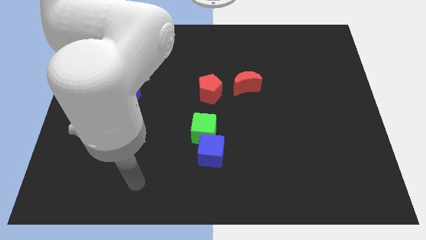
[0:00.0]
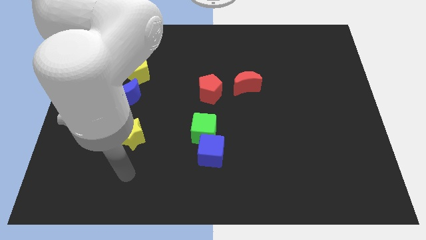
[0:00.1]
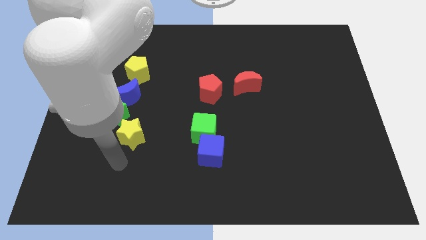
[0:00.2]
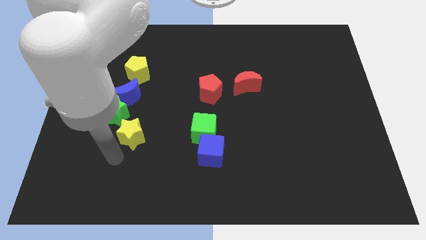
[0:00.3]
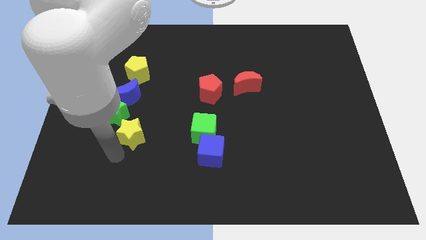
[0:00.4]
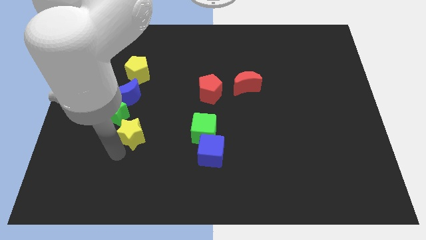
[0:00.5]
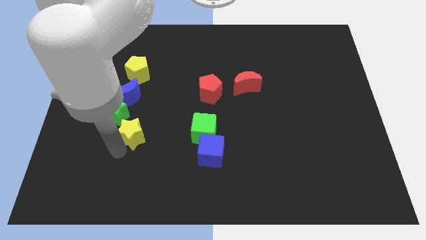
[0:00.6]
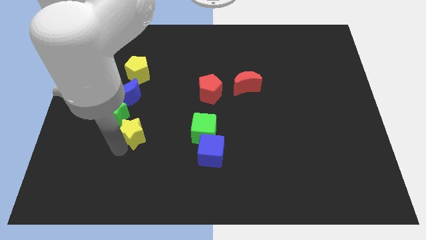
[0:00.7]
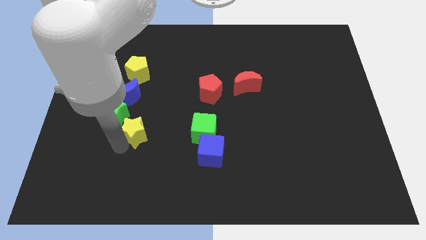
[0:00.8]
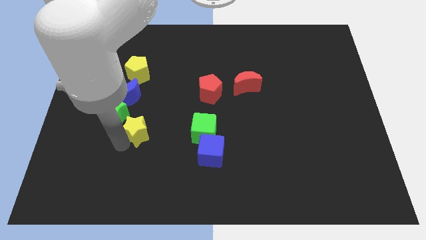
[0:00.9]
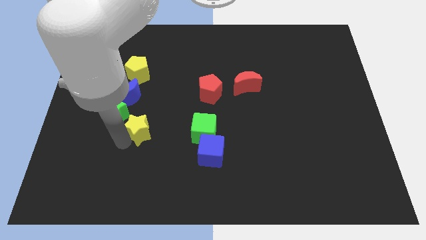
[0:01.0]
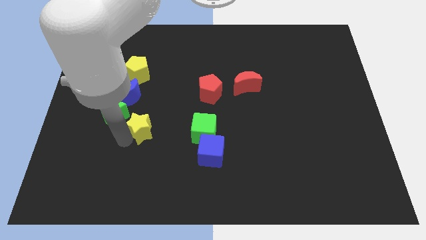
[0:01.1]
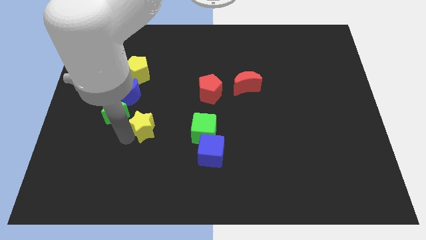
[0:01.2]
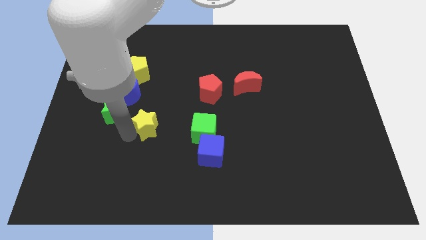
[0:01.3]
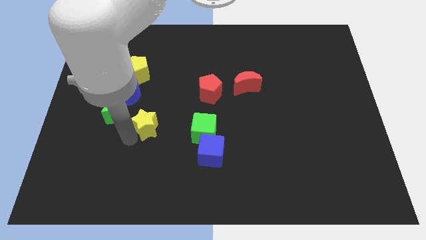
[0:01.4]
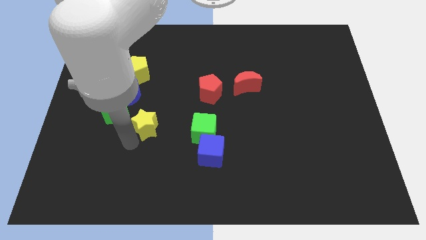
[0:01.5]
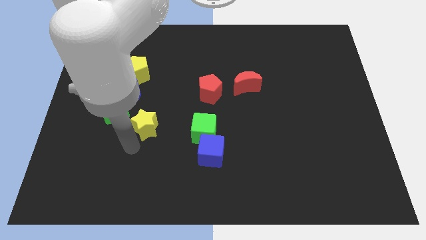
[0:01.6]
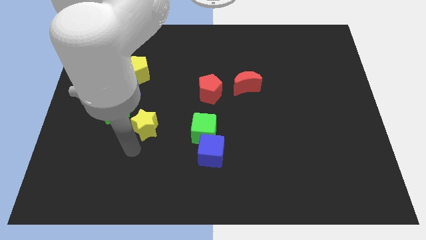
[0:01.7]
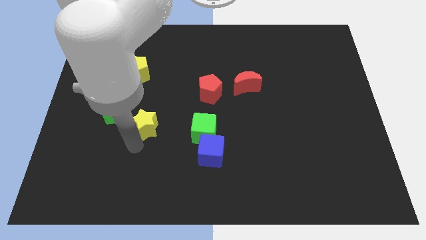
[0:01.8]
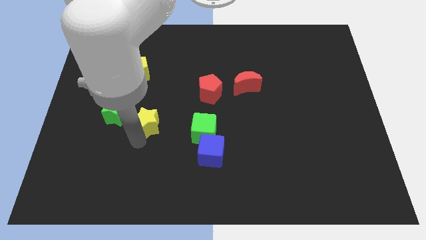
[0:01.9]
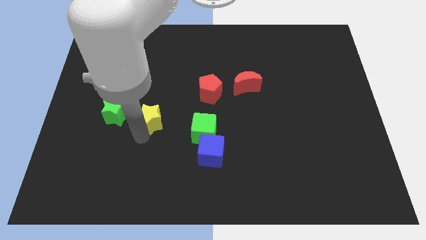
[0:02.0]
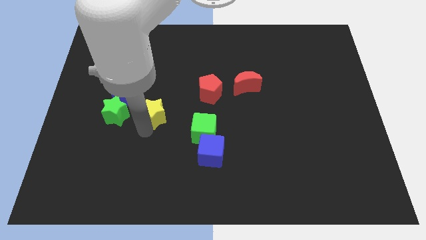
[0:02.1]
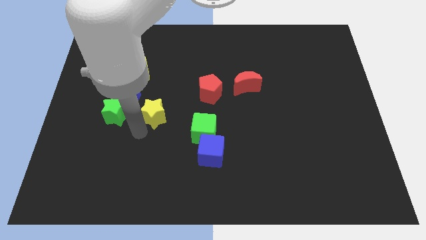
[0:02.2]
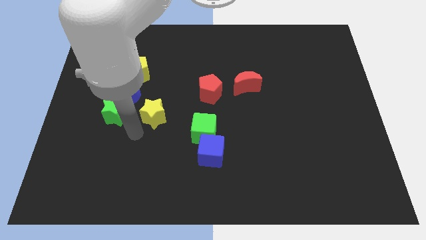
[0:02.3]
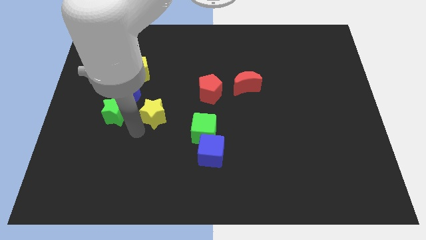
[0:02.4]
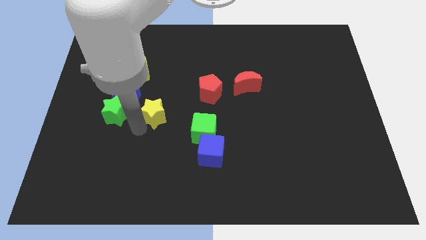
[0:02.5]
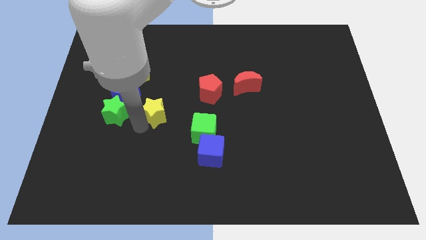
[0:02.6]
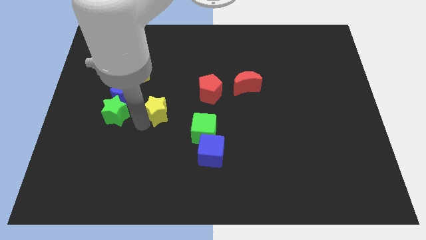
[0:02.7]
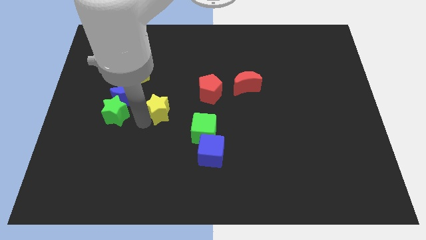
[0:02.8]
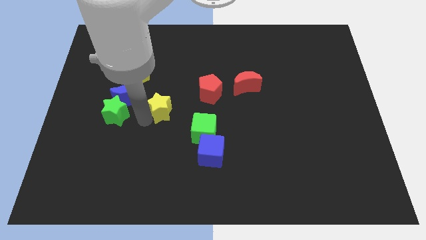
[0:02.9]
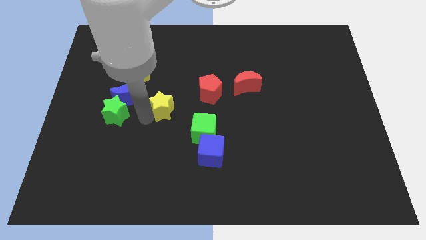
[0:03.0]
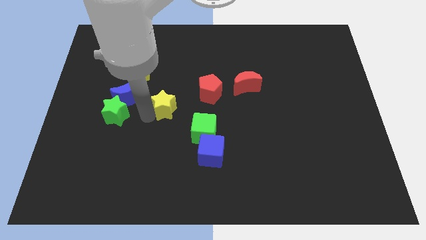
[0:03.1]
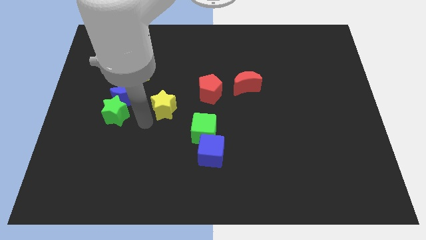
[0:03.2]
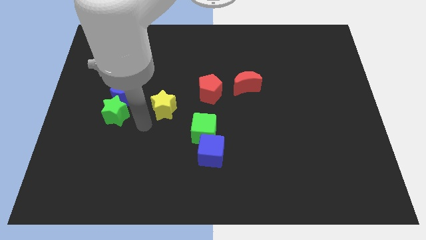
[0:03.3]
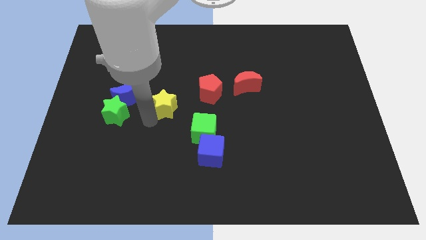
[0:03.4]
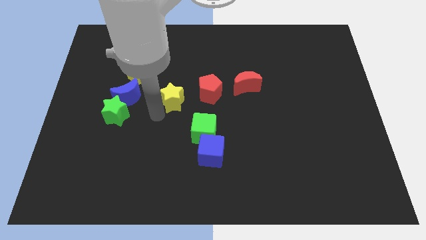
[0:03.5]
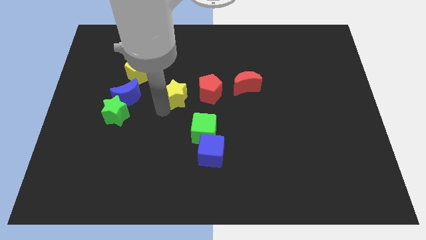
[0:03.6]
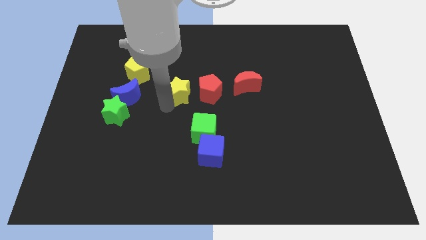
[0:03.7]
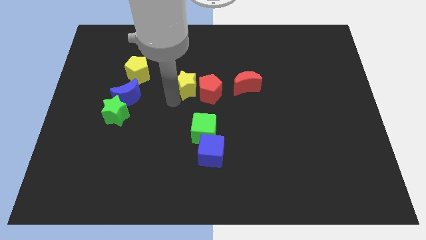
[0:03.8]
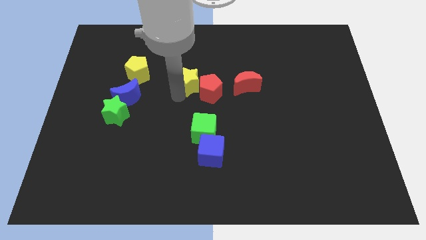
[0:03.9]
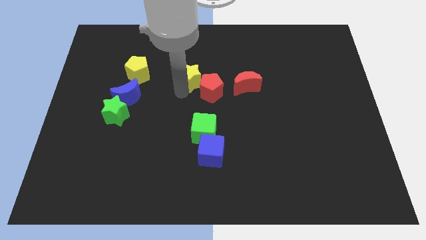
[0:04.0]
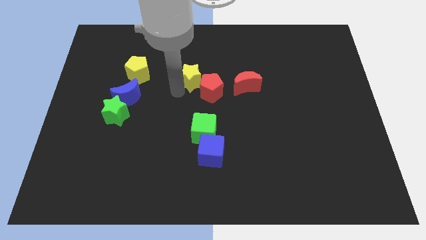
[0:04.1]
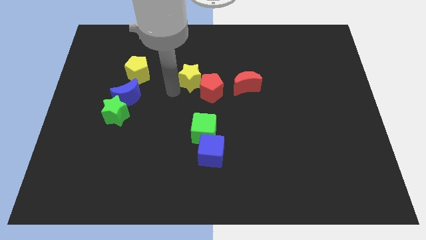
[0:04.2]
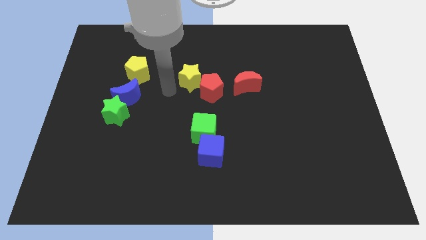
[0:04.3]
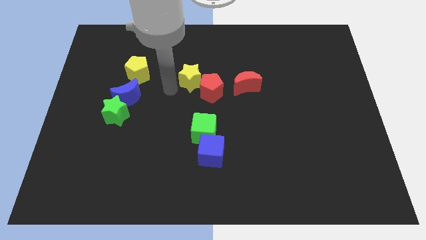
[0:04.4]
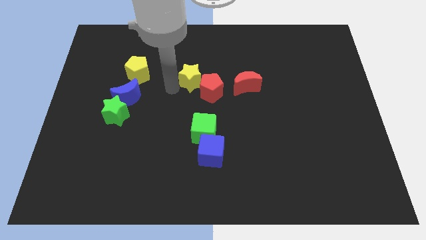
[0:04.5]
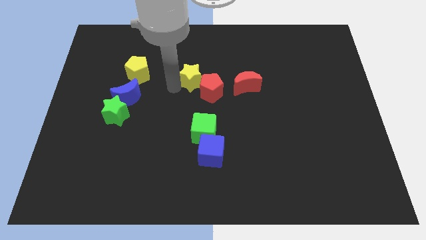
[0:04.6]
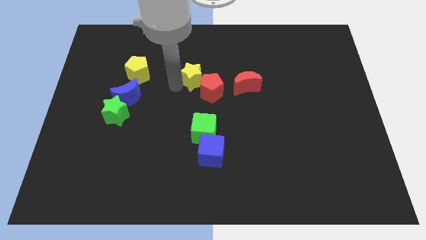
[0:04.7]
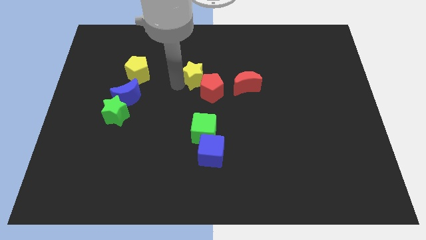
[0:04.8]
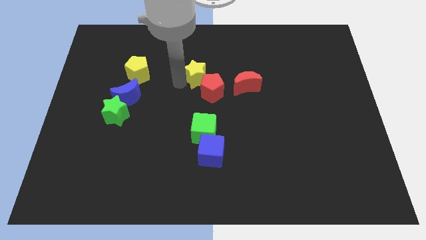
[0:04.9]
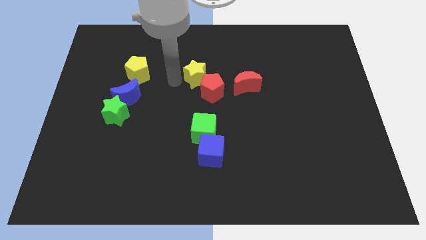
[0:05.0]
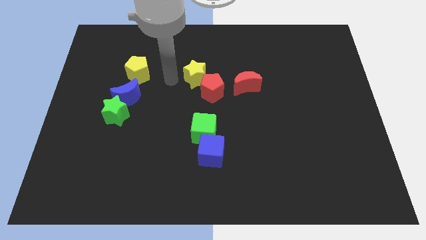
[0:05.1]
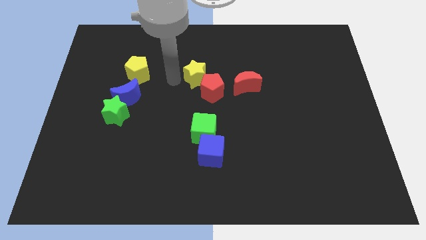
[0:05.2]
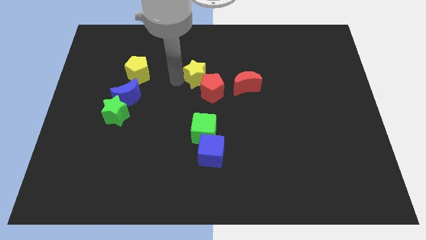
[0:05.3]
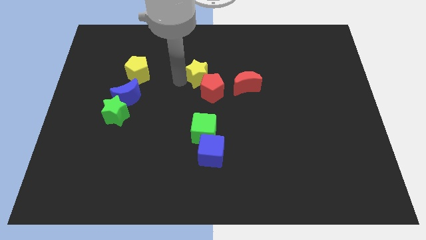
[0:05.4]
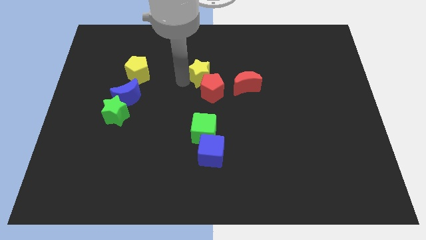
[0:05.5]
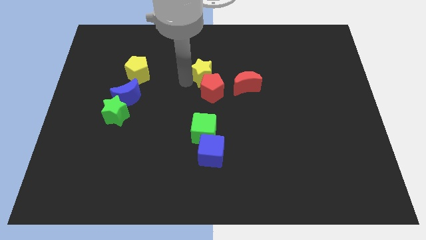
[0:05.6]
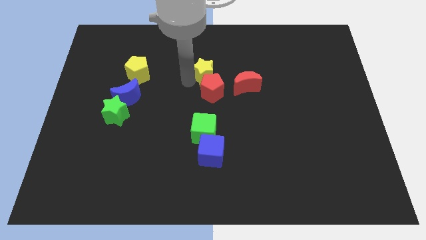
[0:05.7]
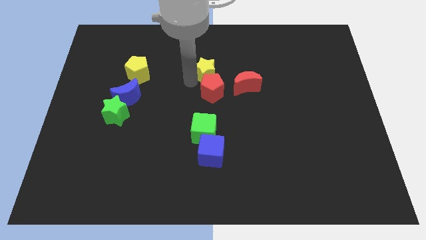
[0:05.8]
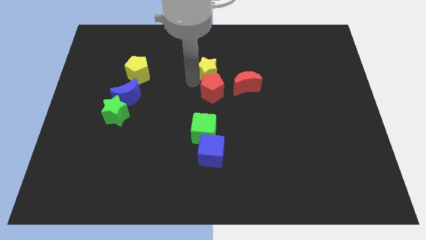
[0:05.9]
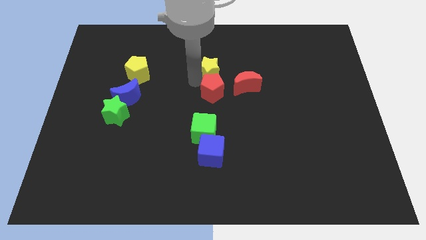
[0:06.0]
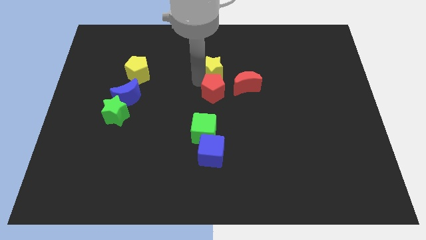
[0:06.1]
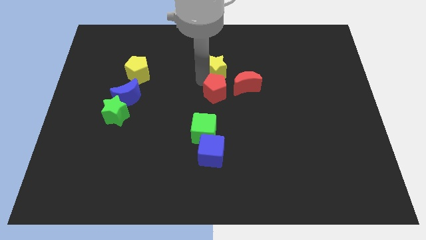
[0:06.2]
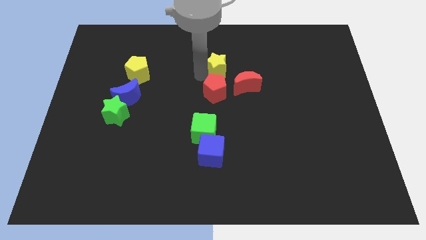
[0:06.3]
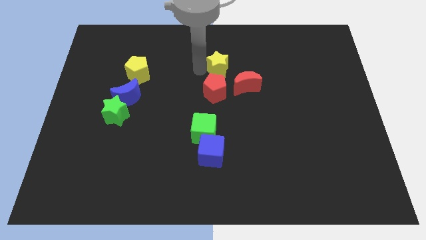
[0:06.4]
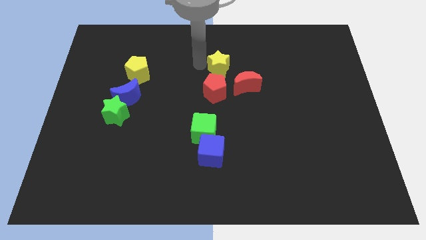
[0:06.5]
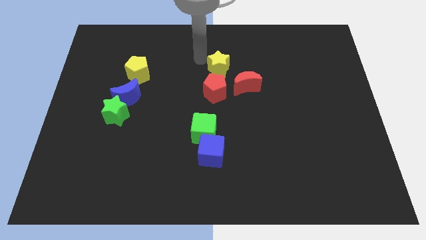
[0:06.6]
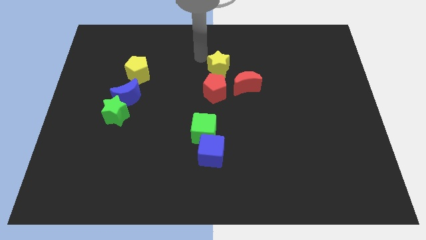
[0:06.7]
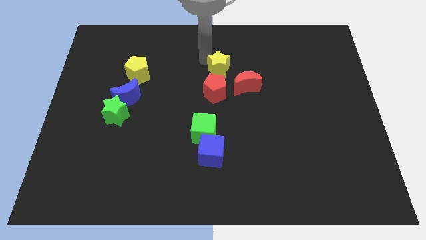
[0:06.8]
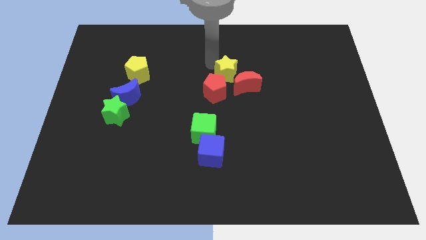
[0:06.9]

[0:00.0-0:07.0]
put the yellow star close to the red moon

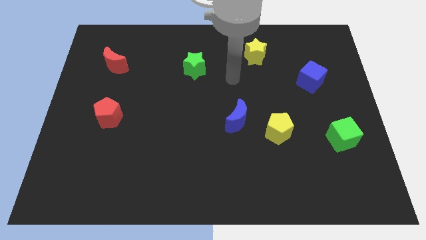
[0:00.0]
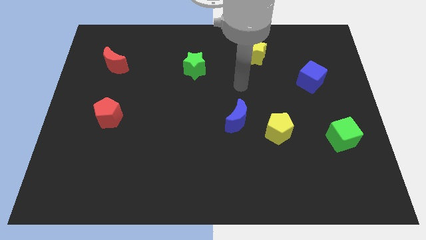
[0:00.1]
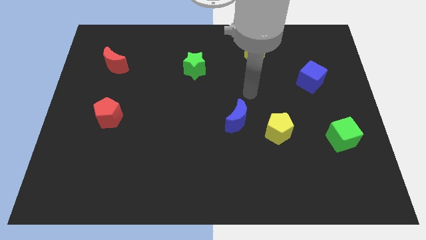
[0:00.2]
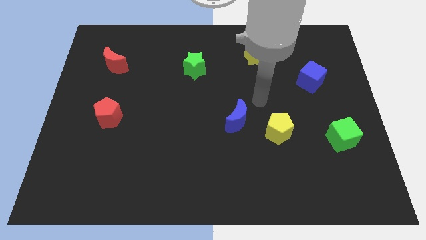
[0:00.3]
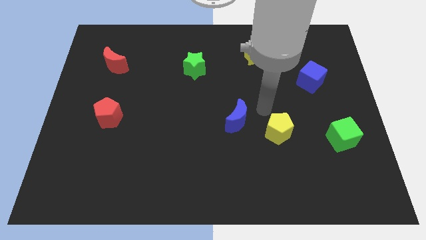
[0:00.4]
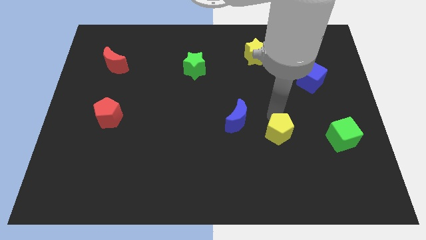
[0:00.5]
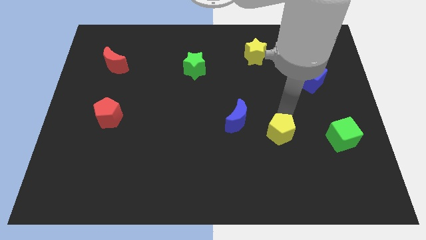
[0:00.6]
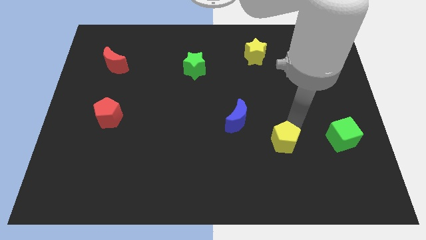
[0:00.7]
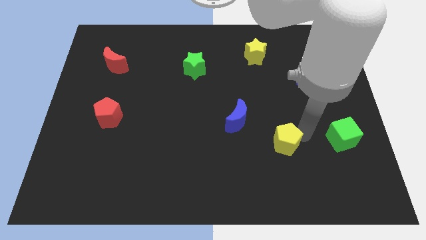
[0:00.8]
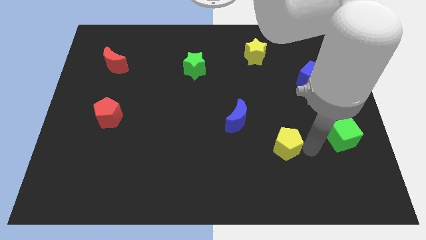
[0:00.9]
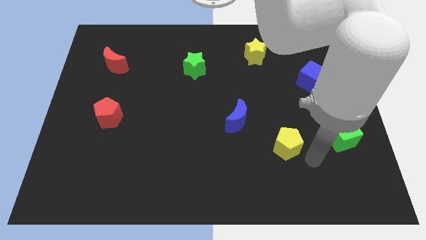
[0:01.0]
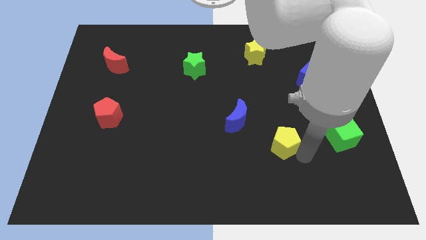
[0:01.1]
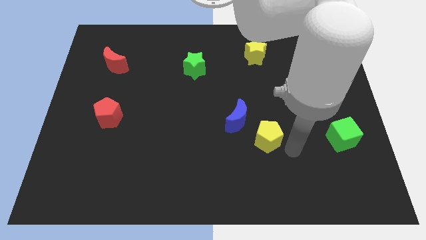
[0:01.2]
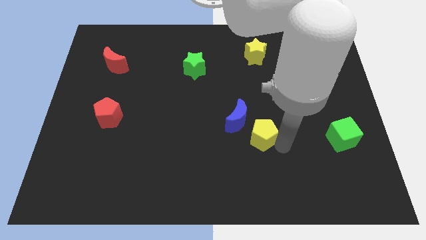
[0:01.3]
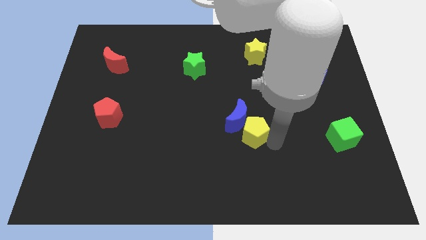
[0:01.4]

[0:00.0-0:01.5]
push the yellow pentagon towards the blue moon
